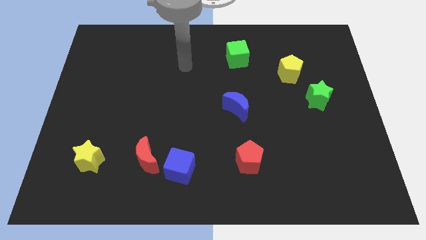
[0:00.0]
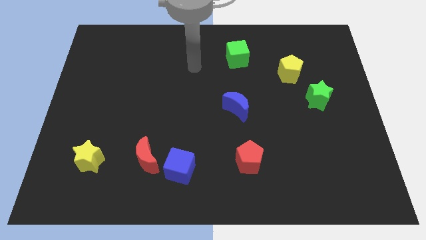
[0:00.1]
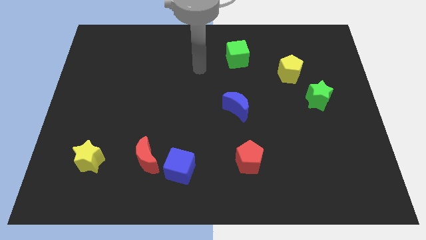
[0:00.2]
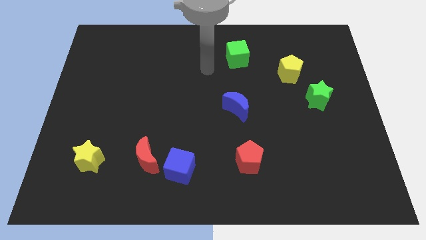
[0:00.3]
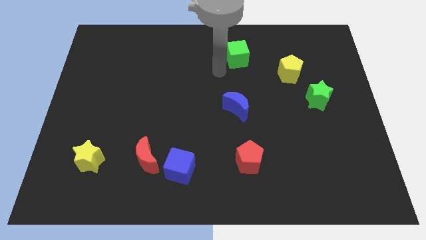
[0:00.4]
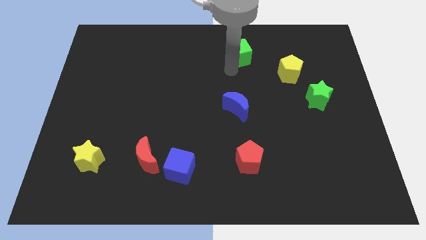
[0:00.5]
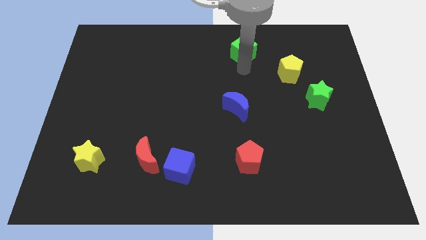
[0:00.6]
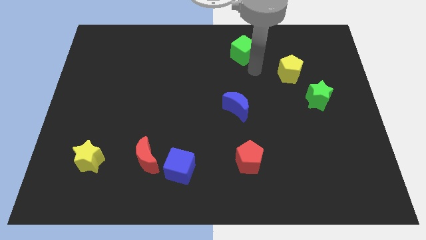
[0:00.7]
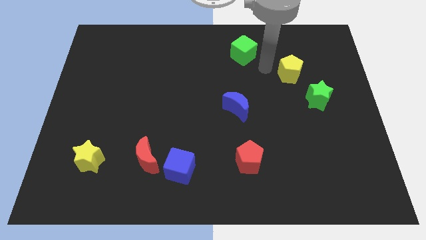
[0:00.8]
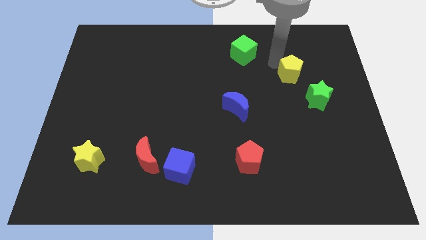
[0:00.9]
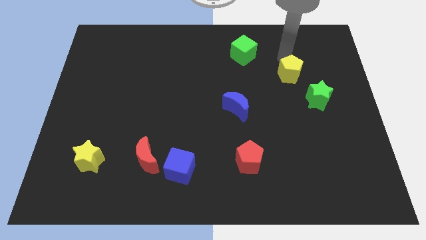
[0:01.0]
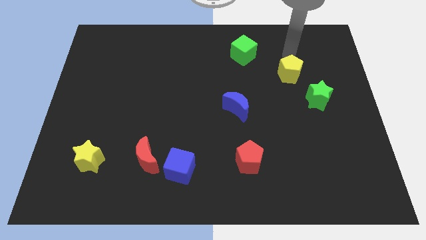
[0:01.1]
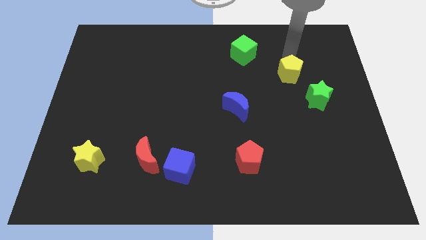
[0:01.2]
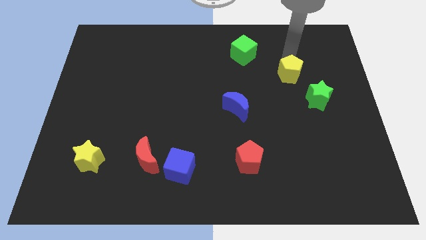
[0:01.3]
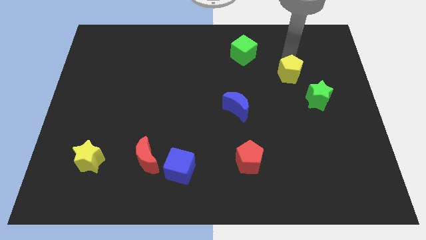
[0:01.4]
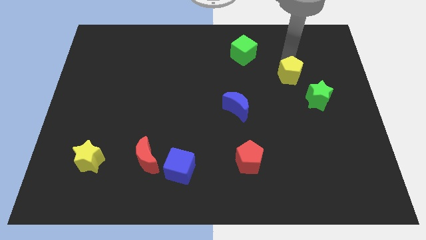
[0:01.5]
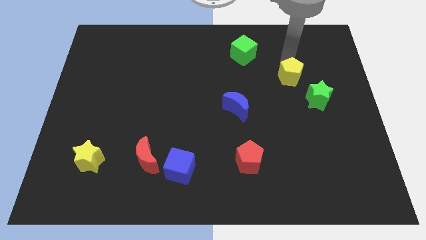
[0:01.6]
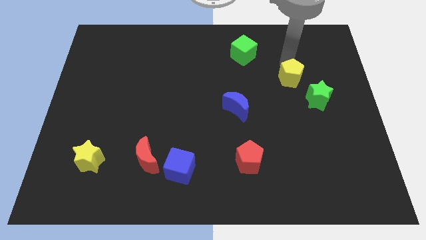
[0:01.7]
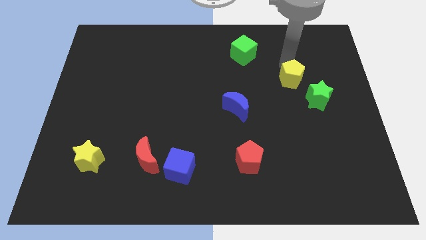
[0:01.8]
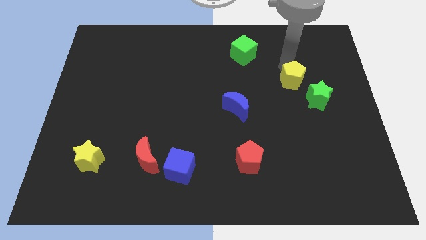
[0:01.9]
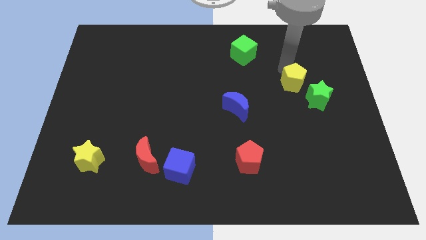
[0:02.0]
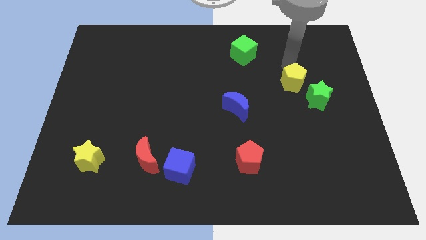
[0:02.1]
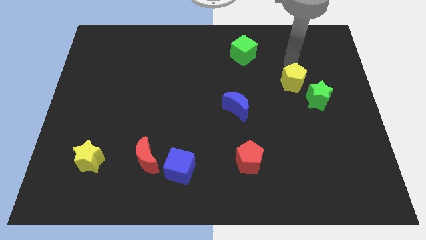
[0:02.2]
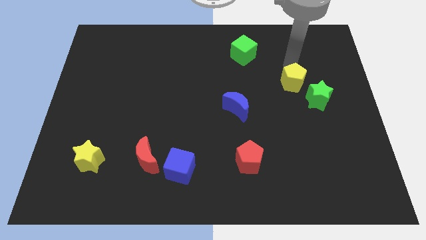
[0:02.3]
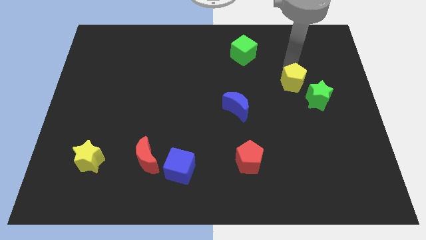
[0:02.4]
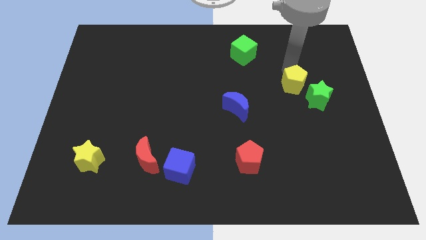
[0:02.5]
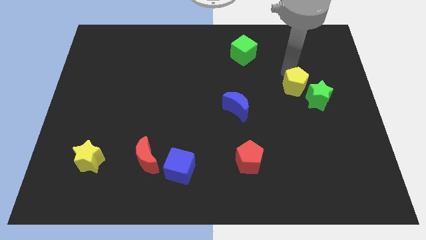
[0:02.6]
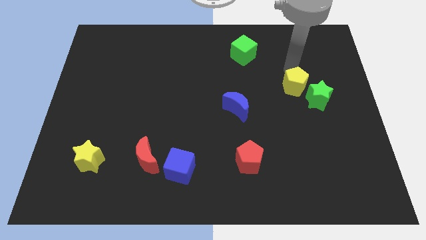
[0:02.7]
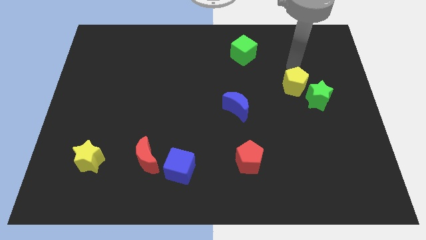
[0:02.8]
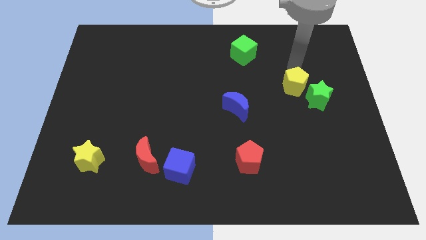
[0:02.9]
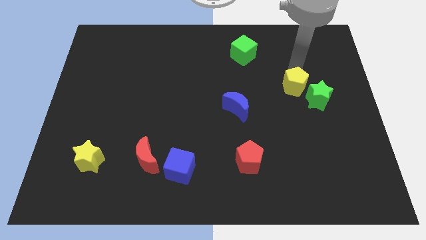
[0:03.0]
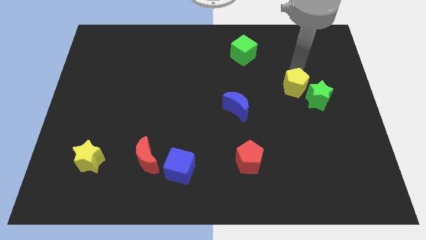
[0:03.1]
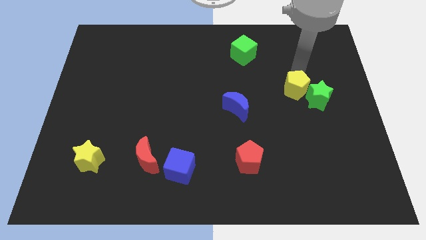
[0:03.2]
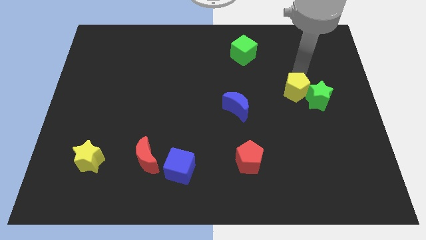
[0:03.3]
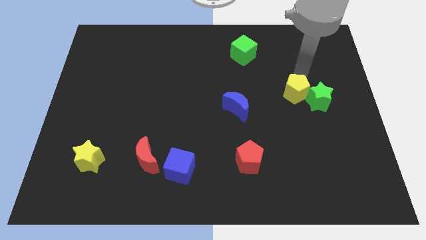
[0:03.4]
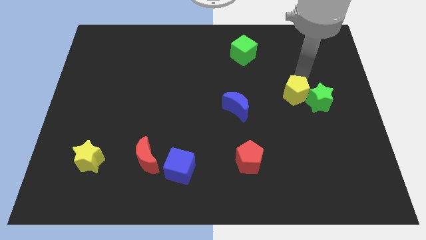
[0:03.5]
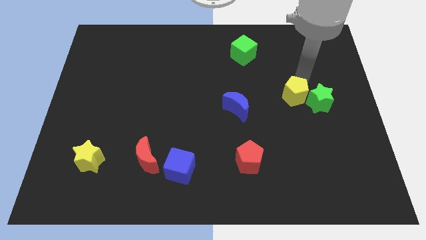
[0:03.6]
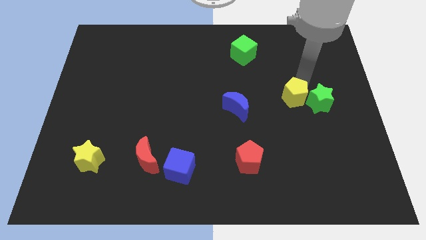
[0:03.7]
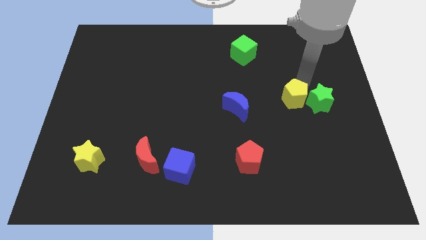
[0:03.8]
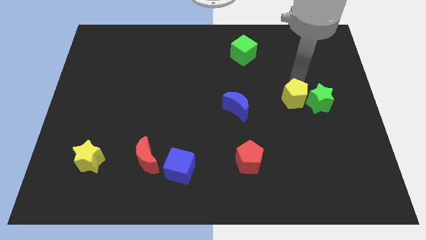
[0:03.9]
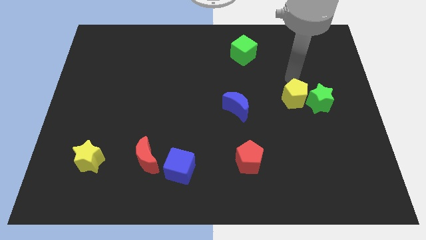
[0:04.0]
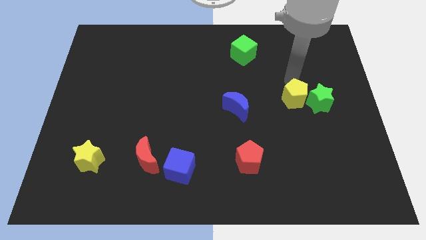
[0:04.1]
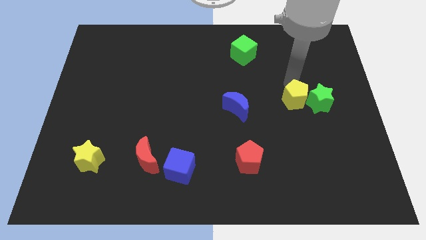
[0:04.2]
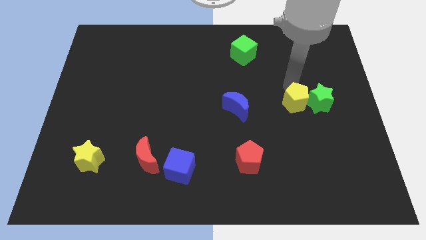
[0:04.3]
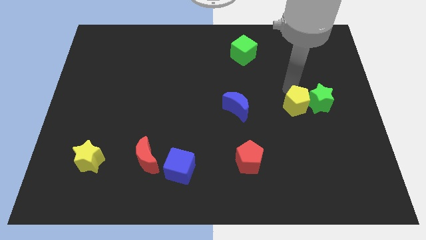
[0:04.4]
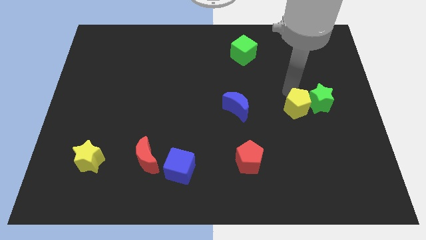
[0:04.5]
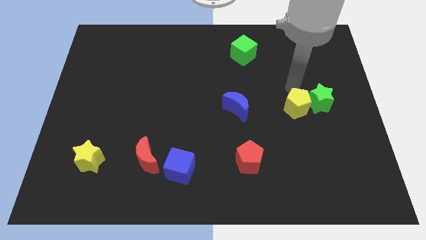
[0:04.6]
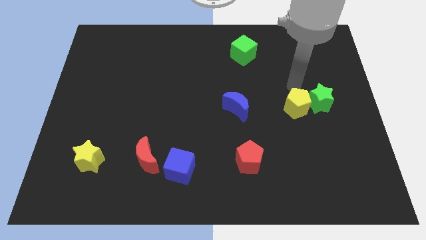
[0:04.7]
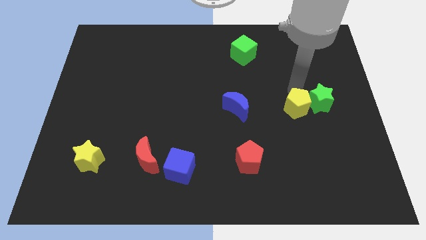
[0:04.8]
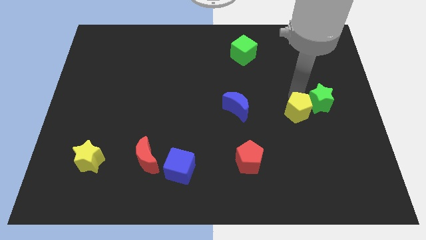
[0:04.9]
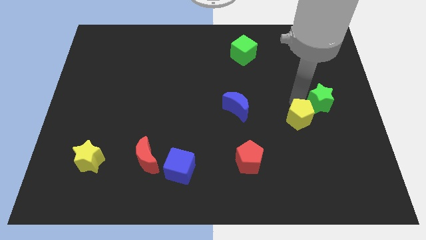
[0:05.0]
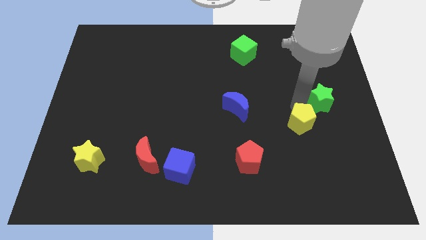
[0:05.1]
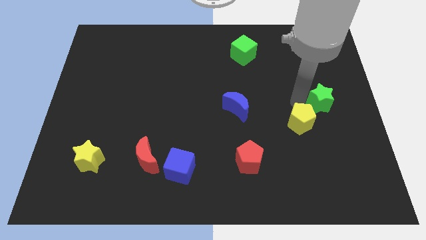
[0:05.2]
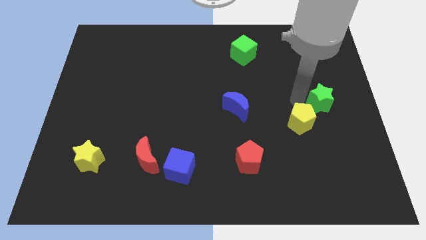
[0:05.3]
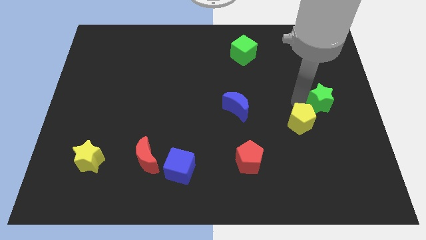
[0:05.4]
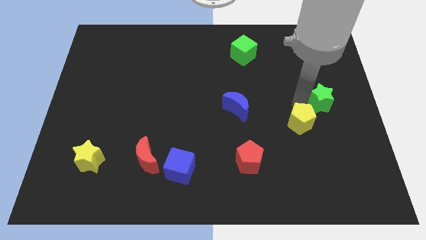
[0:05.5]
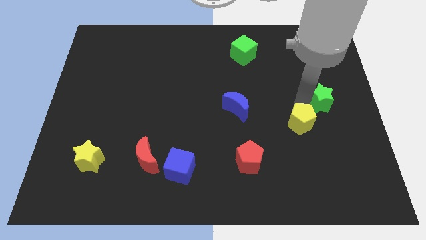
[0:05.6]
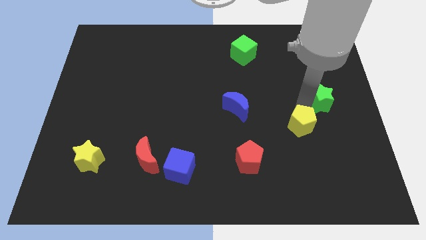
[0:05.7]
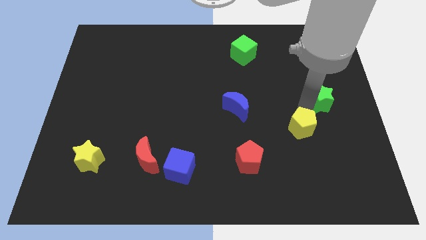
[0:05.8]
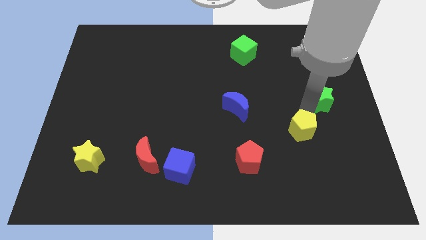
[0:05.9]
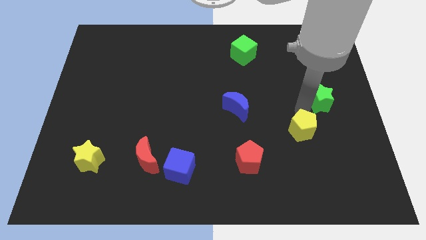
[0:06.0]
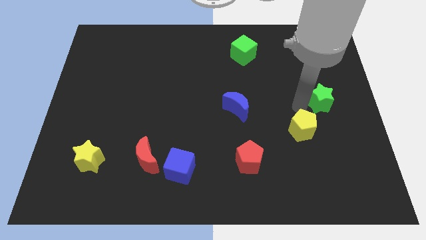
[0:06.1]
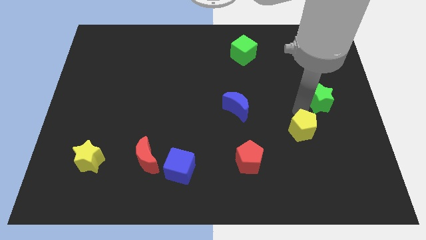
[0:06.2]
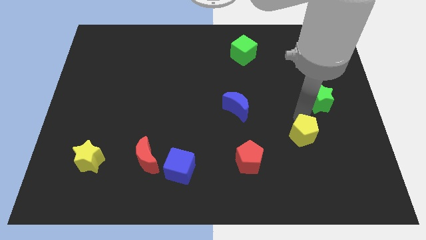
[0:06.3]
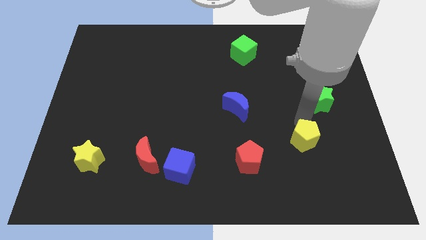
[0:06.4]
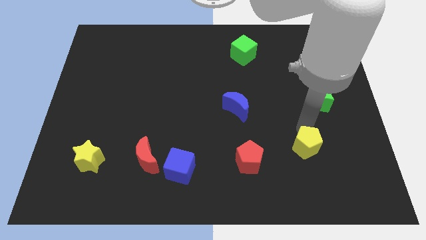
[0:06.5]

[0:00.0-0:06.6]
slide the yellow pentagon right of the red pentagon

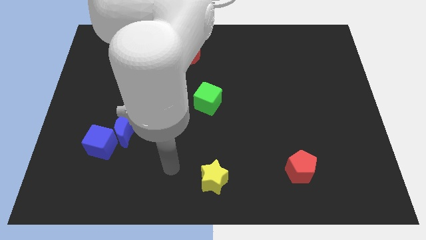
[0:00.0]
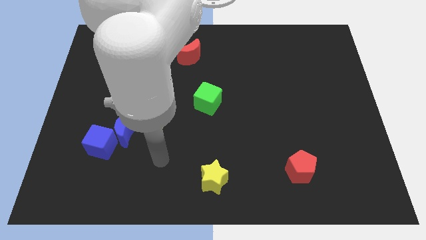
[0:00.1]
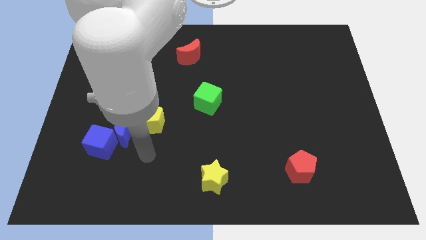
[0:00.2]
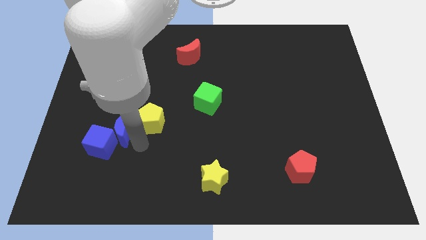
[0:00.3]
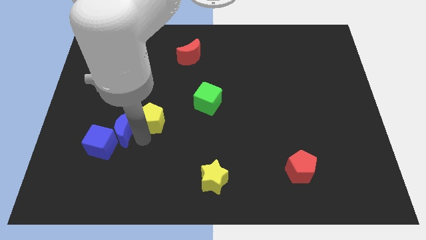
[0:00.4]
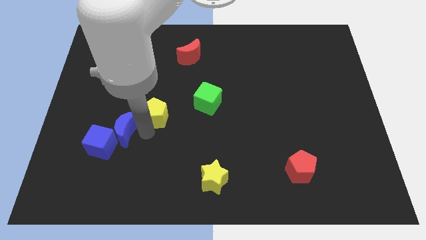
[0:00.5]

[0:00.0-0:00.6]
slide the yellow pentagon just left of the green cube
